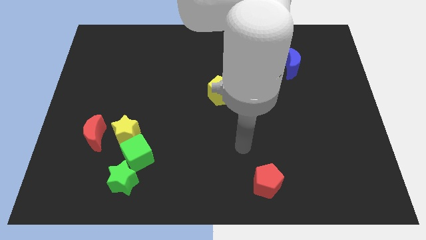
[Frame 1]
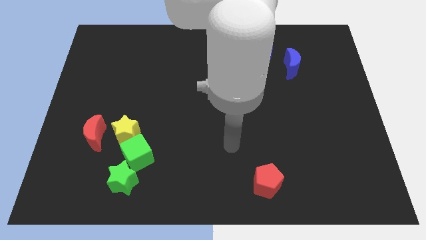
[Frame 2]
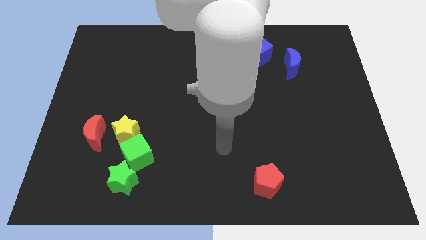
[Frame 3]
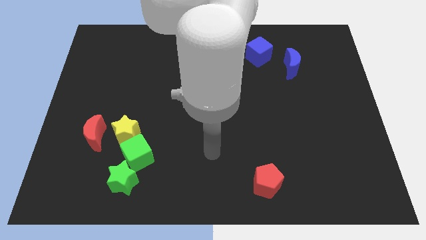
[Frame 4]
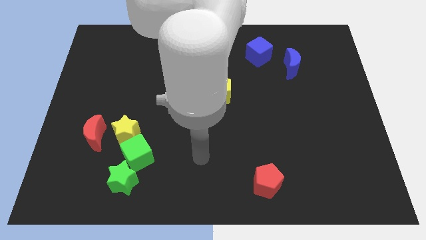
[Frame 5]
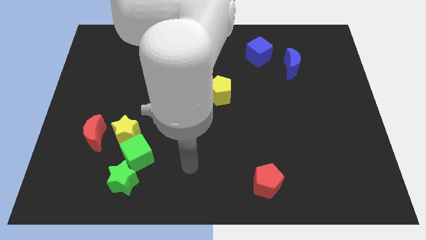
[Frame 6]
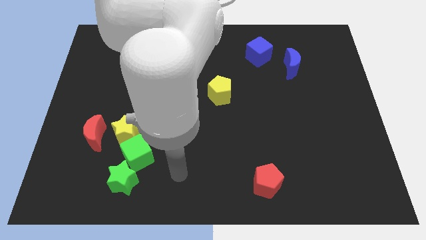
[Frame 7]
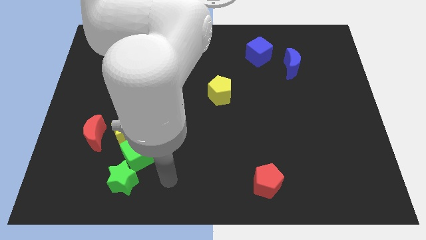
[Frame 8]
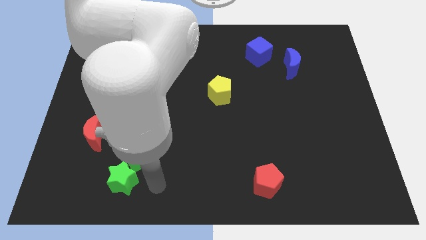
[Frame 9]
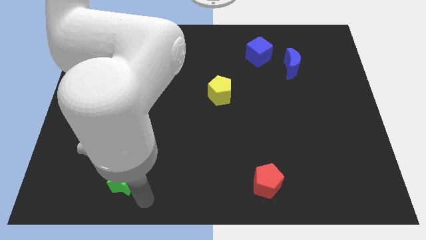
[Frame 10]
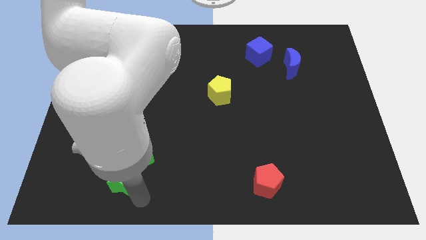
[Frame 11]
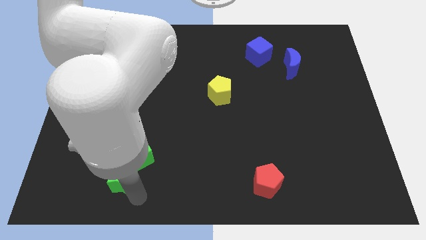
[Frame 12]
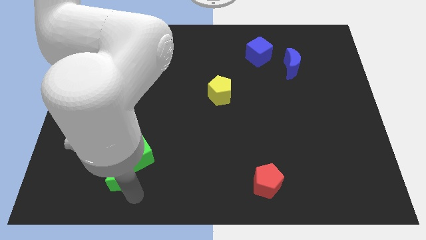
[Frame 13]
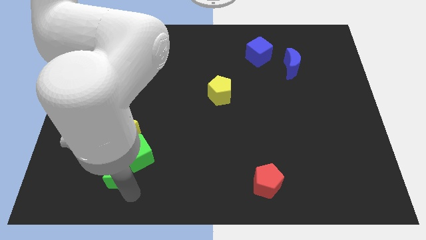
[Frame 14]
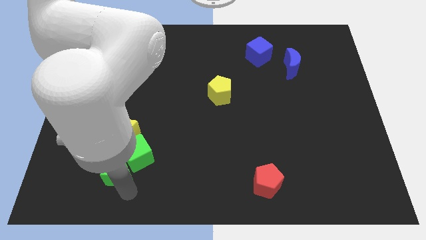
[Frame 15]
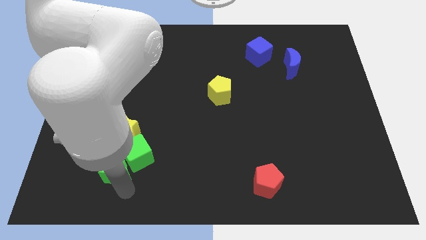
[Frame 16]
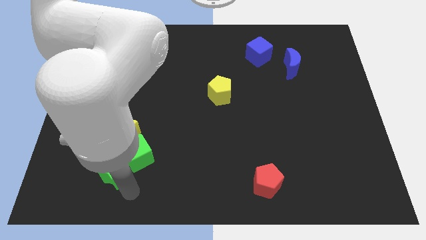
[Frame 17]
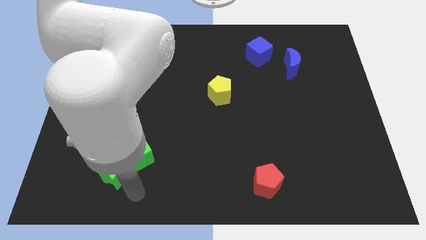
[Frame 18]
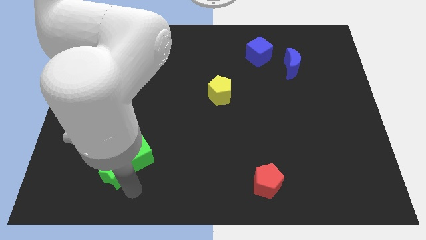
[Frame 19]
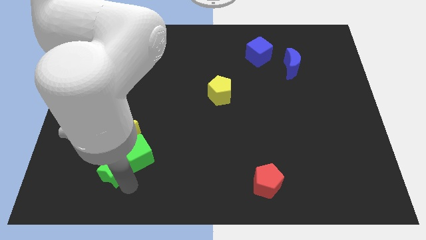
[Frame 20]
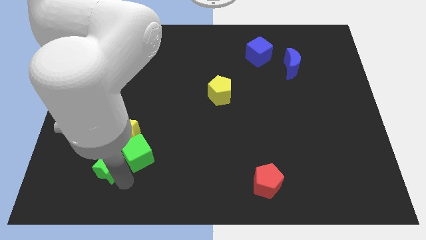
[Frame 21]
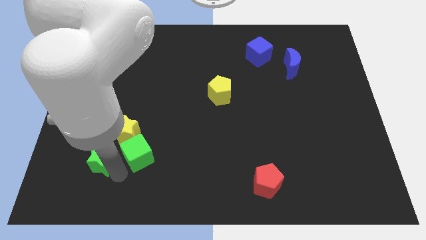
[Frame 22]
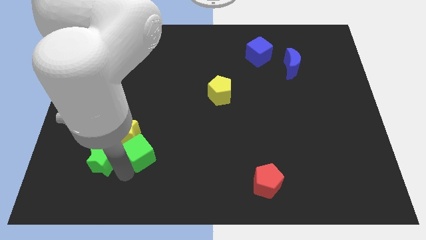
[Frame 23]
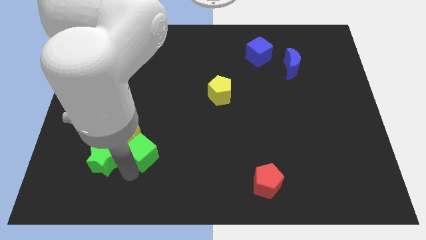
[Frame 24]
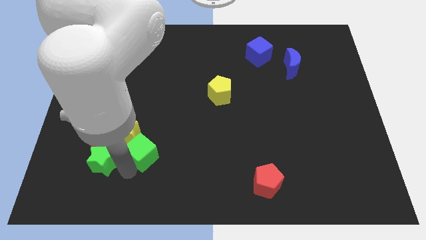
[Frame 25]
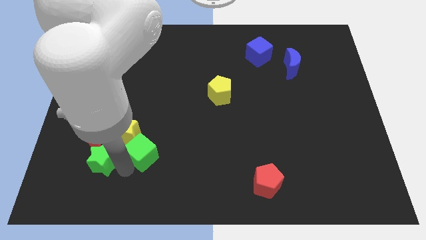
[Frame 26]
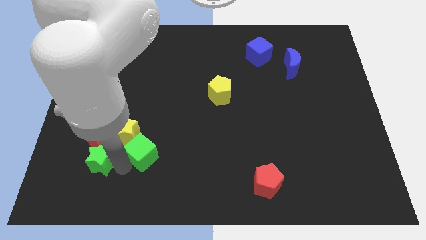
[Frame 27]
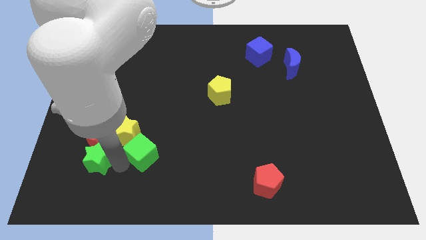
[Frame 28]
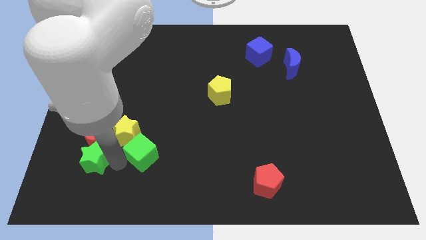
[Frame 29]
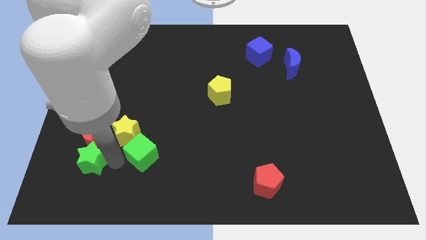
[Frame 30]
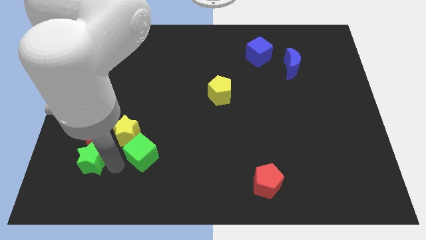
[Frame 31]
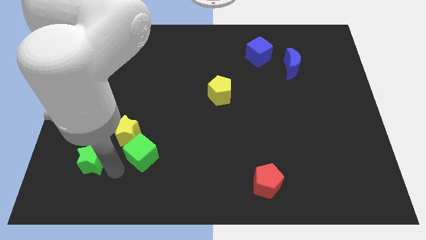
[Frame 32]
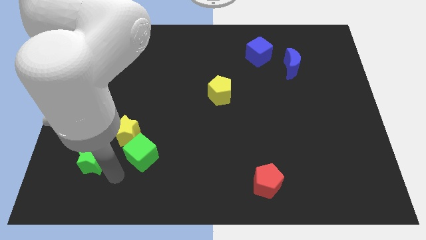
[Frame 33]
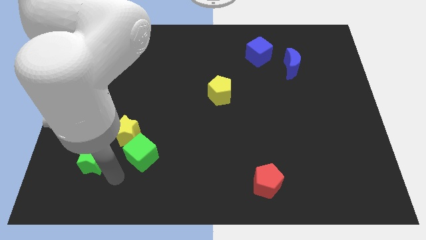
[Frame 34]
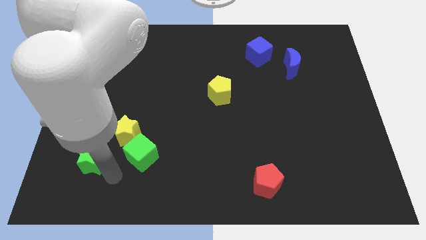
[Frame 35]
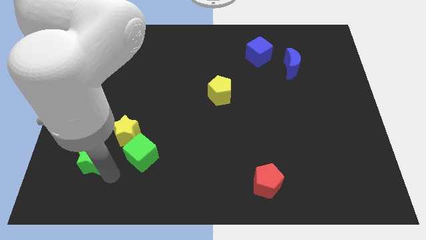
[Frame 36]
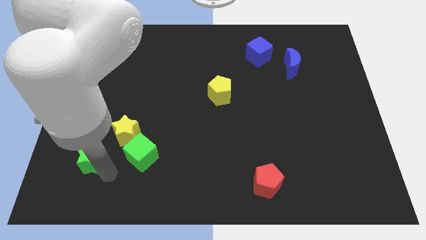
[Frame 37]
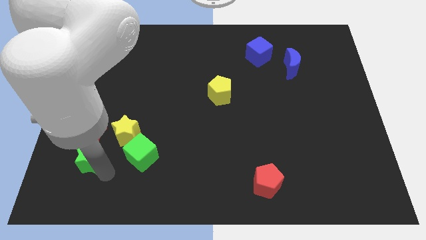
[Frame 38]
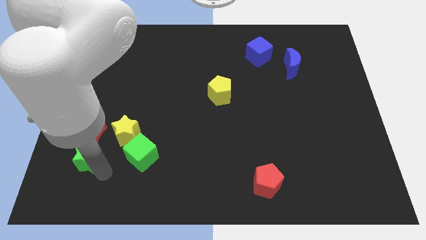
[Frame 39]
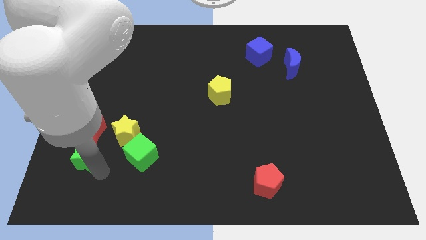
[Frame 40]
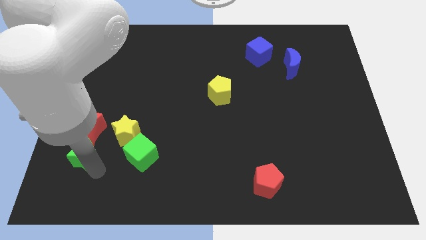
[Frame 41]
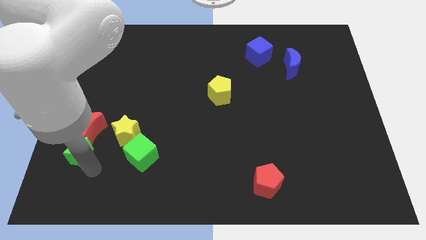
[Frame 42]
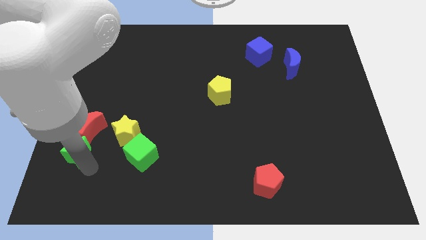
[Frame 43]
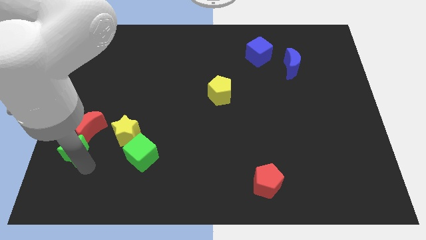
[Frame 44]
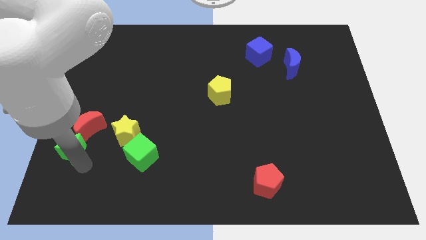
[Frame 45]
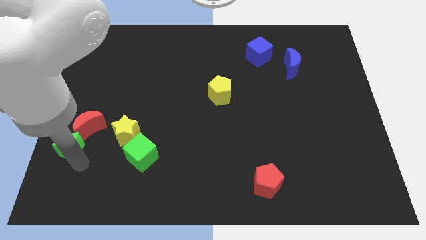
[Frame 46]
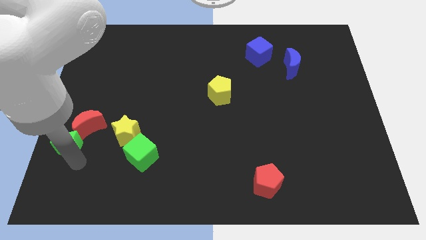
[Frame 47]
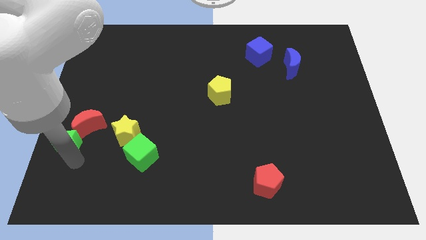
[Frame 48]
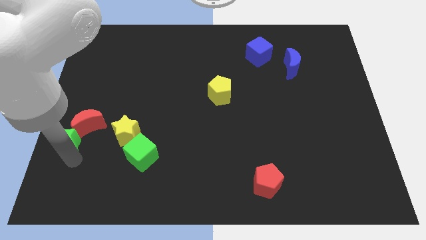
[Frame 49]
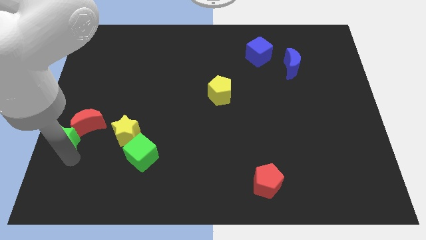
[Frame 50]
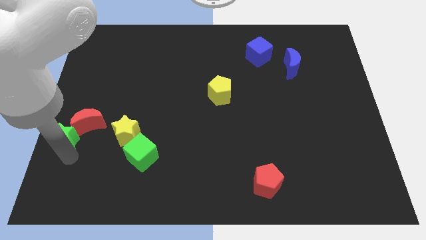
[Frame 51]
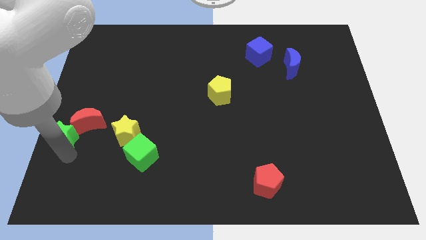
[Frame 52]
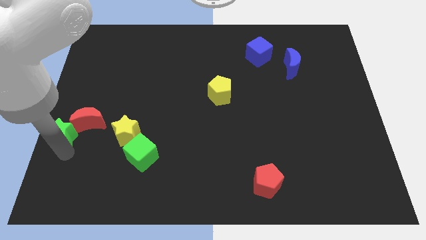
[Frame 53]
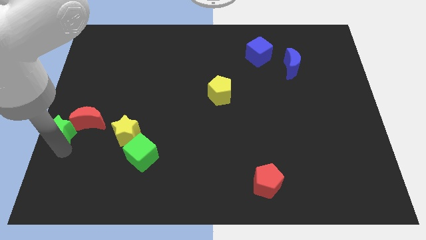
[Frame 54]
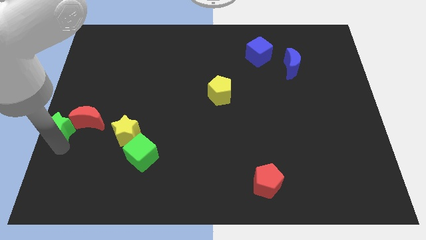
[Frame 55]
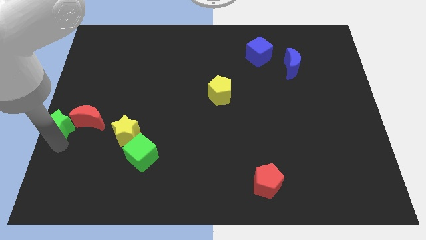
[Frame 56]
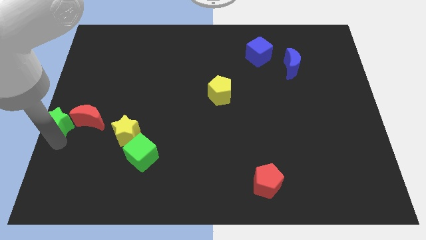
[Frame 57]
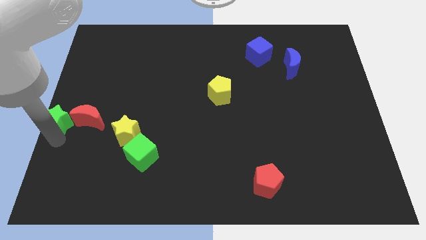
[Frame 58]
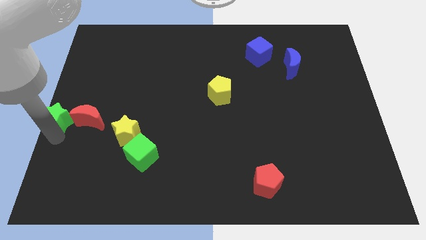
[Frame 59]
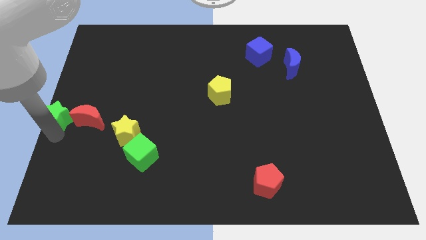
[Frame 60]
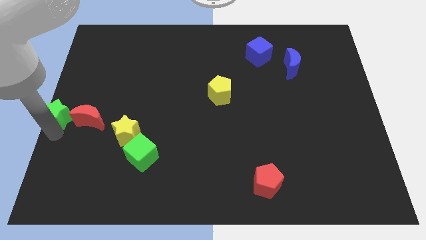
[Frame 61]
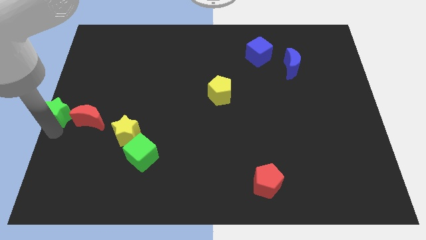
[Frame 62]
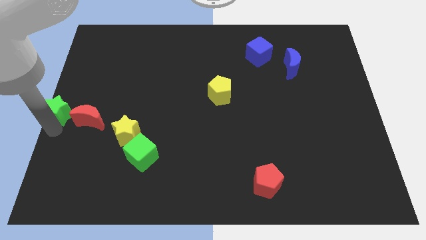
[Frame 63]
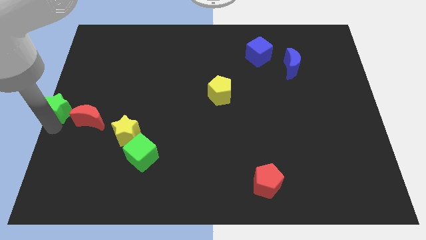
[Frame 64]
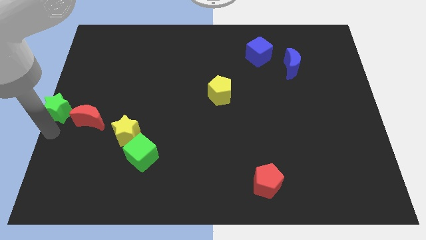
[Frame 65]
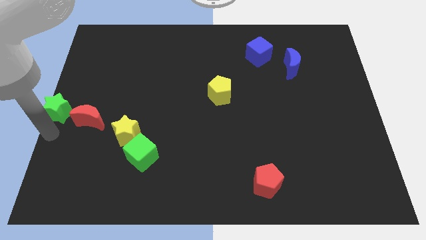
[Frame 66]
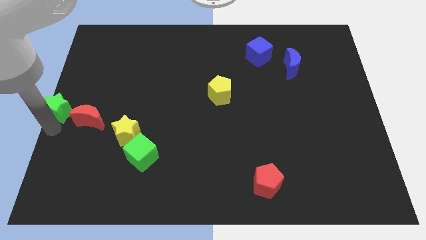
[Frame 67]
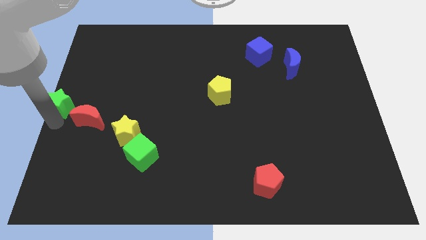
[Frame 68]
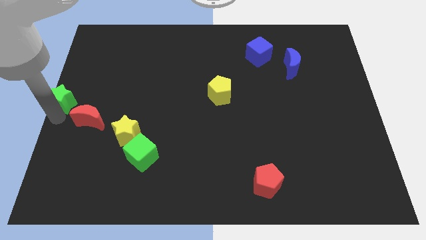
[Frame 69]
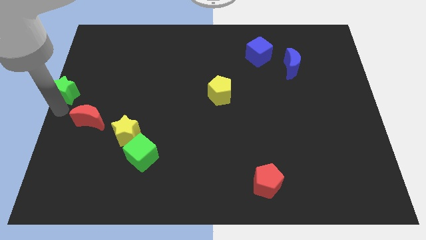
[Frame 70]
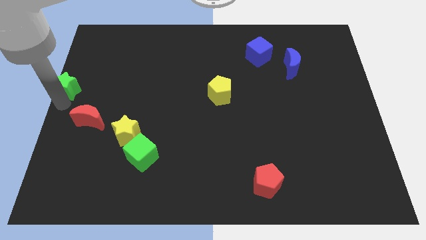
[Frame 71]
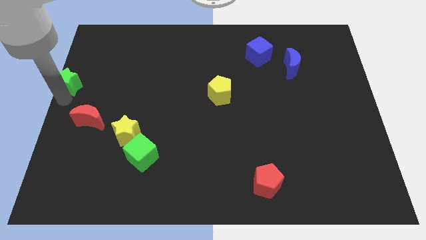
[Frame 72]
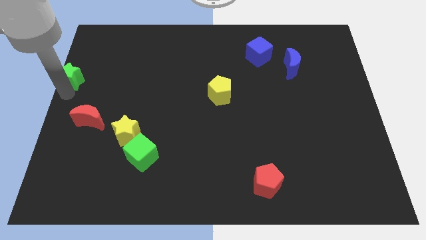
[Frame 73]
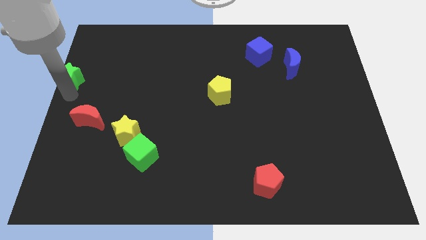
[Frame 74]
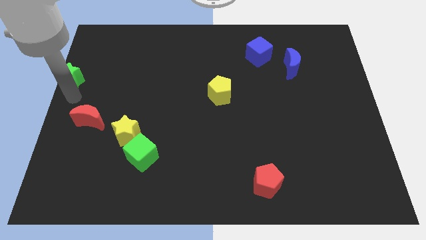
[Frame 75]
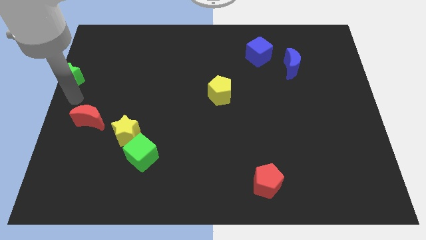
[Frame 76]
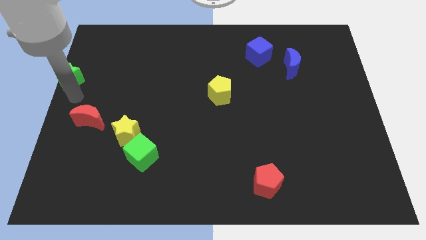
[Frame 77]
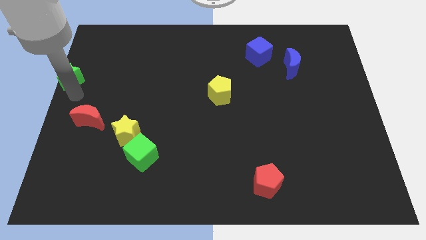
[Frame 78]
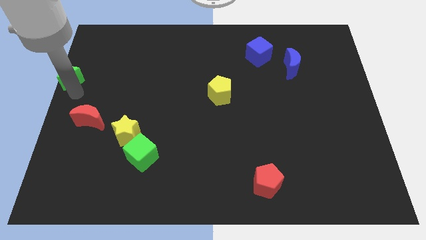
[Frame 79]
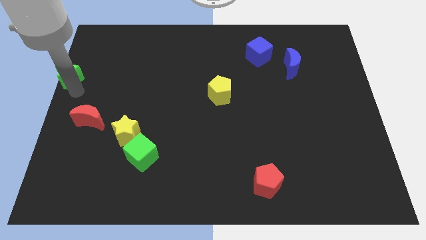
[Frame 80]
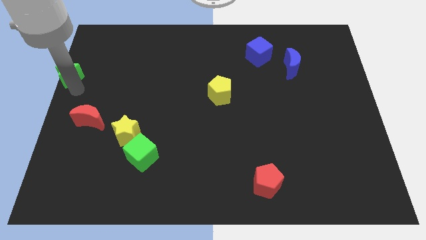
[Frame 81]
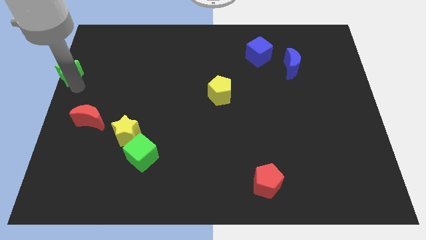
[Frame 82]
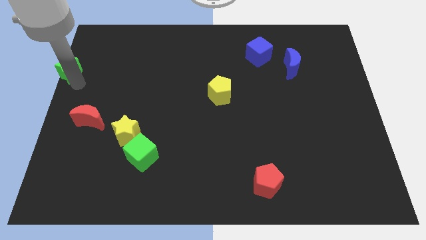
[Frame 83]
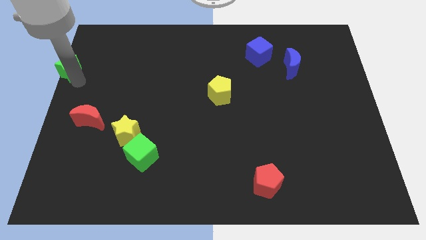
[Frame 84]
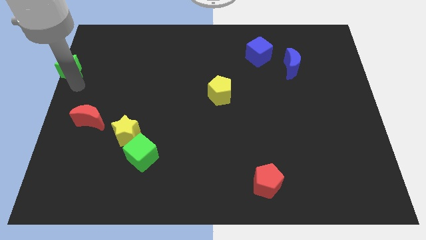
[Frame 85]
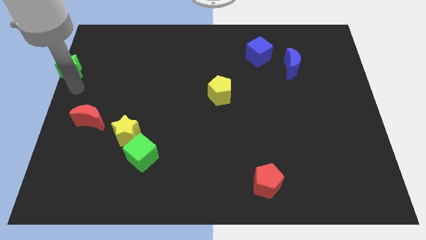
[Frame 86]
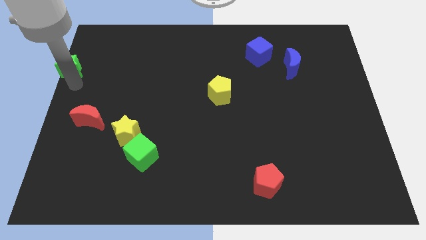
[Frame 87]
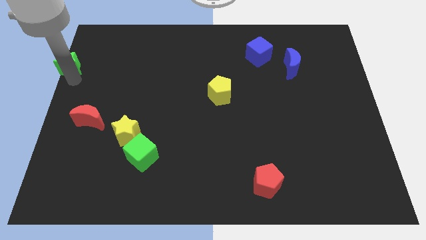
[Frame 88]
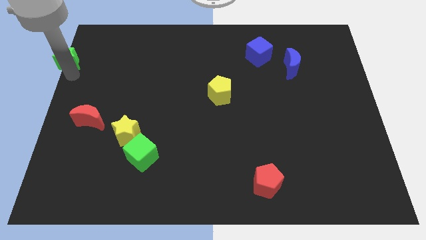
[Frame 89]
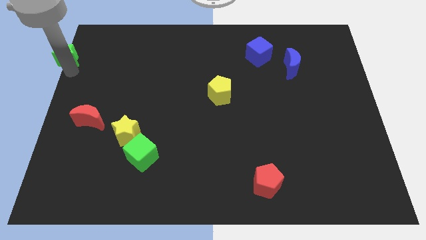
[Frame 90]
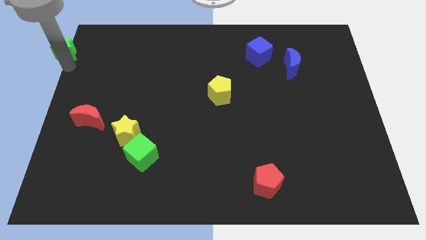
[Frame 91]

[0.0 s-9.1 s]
push the green star to the upper left corner
